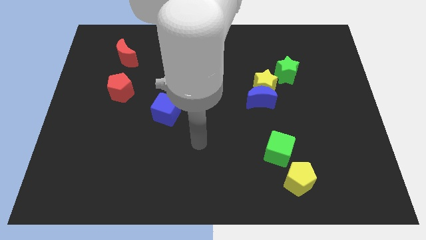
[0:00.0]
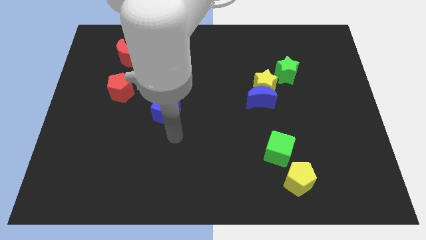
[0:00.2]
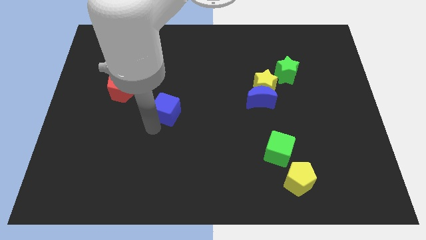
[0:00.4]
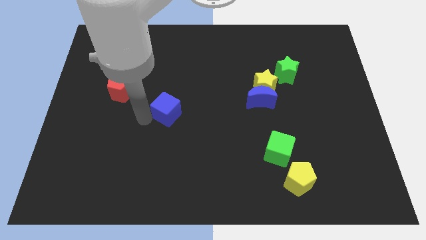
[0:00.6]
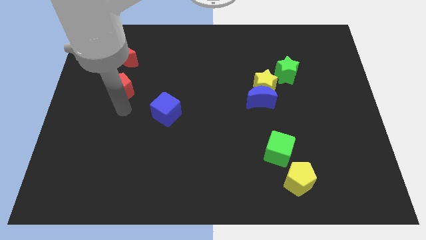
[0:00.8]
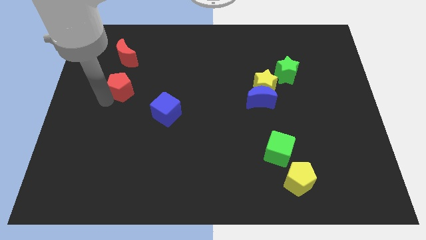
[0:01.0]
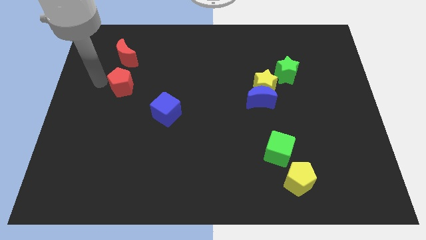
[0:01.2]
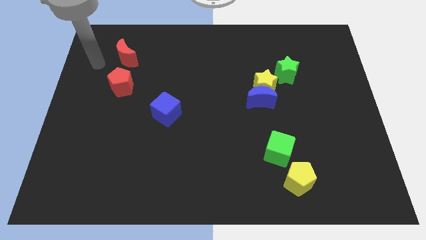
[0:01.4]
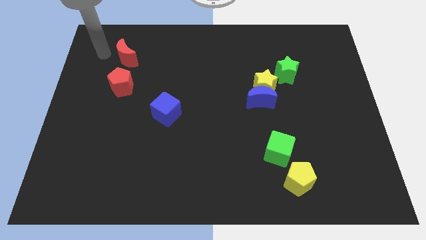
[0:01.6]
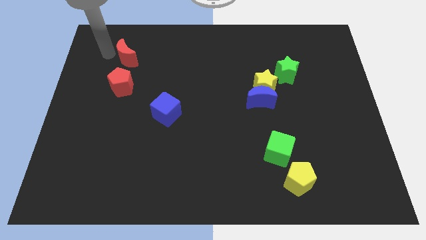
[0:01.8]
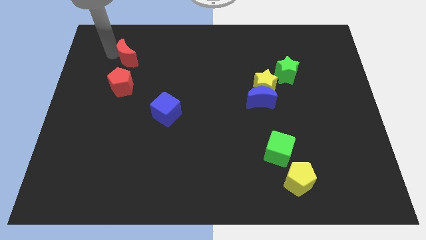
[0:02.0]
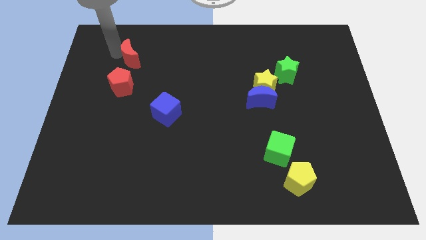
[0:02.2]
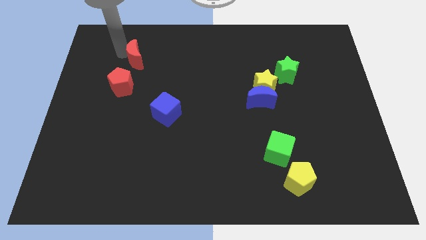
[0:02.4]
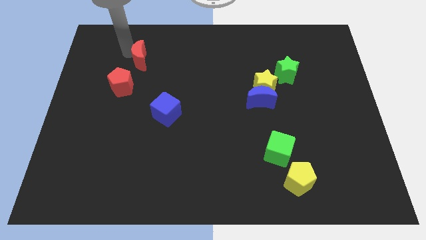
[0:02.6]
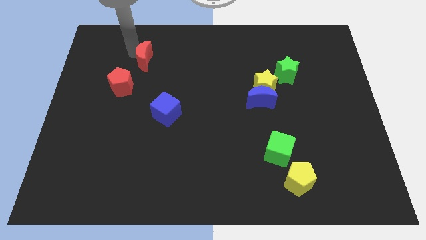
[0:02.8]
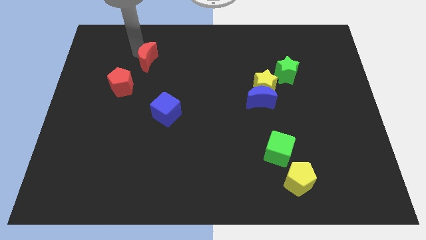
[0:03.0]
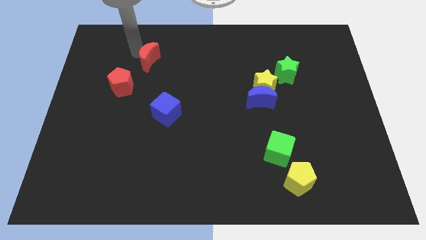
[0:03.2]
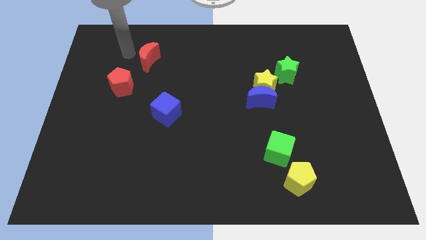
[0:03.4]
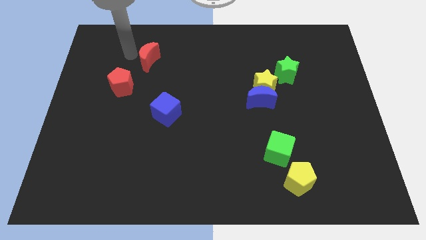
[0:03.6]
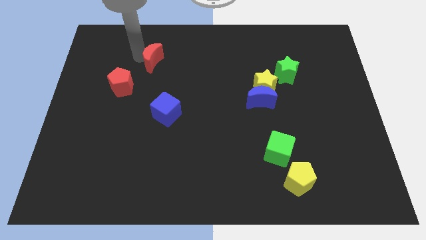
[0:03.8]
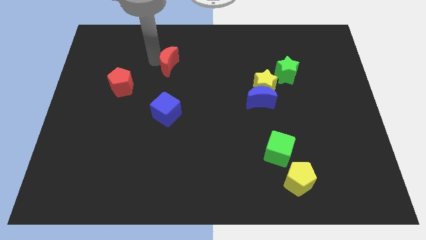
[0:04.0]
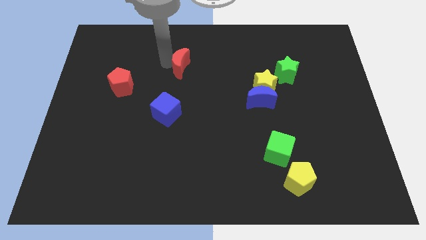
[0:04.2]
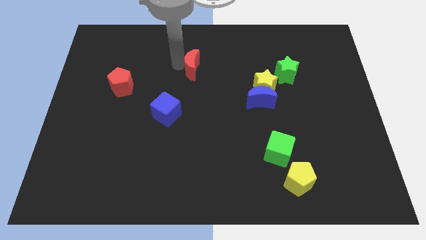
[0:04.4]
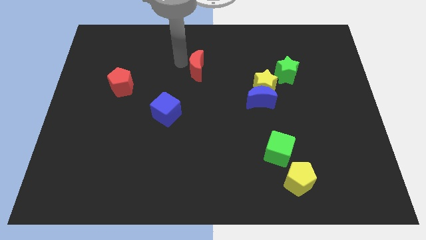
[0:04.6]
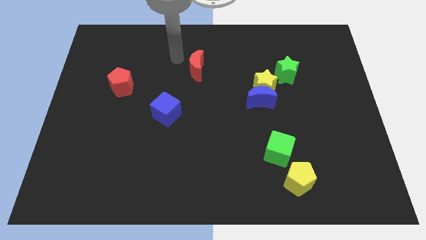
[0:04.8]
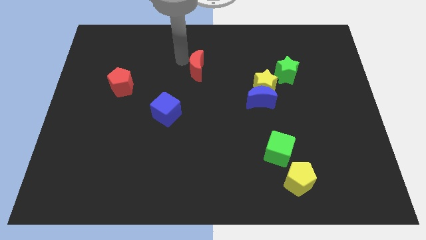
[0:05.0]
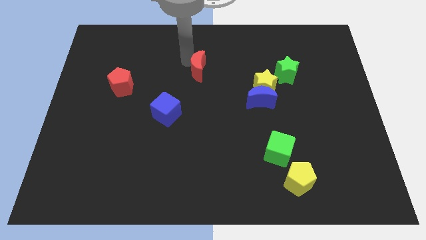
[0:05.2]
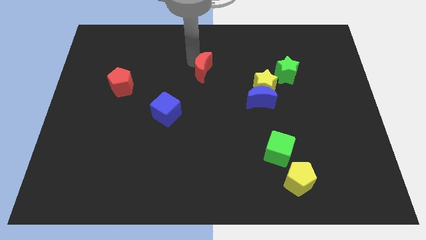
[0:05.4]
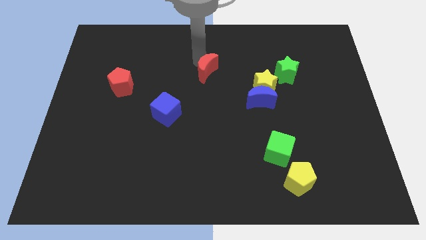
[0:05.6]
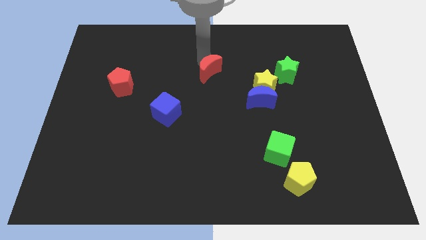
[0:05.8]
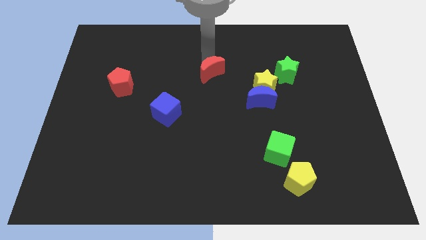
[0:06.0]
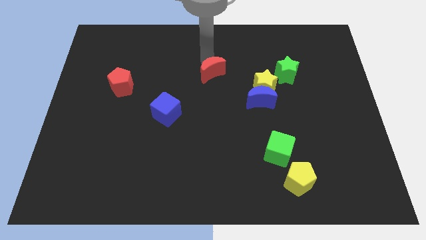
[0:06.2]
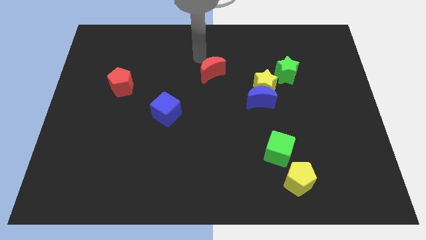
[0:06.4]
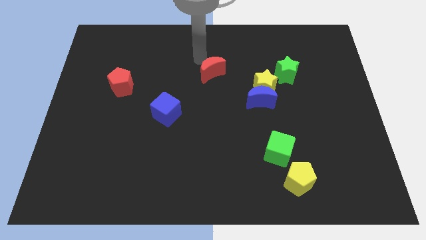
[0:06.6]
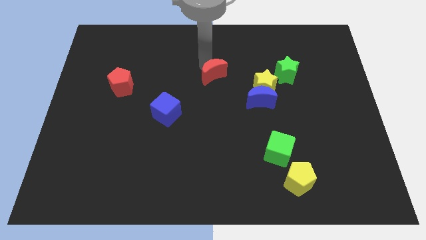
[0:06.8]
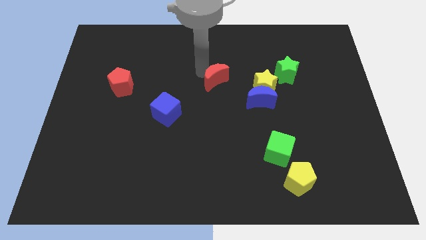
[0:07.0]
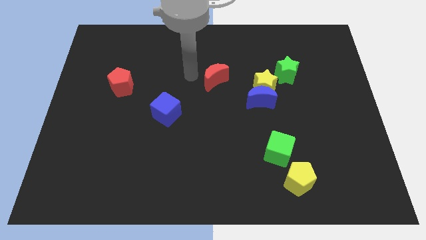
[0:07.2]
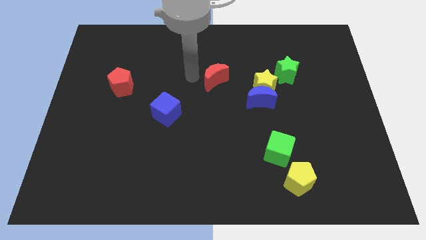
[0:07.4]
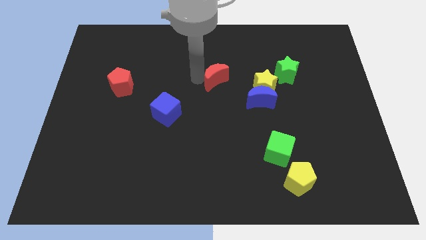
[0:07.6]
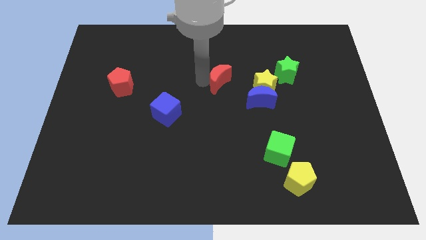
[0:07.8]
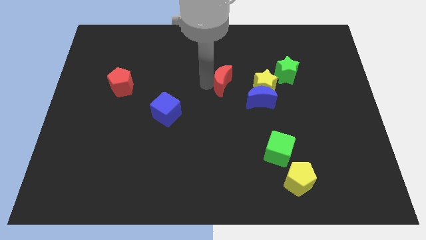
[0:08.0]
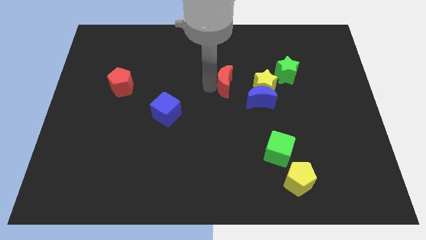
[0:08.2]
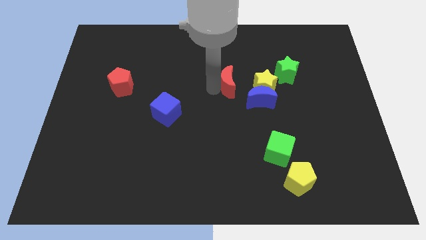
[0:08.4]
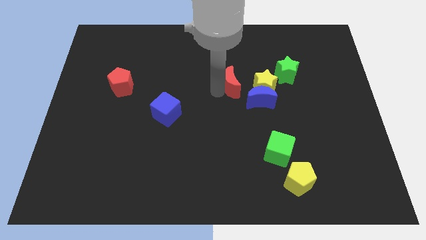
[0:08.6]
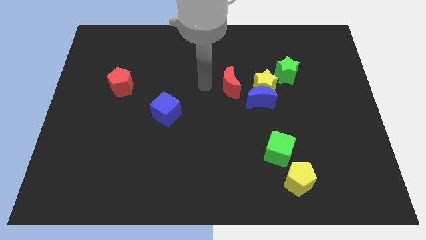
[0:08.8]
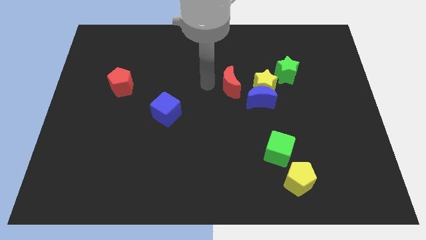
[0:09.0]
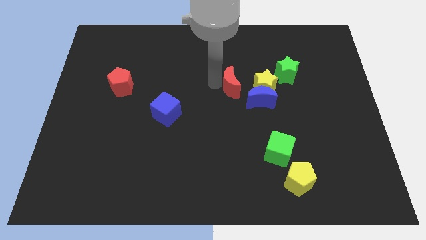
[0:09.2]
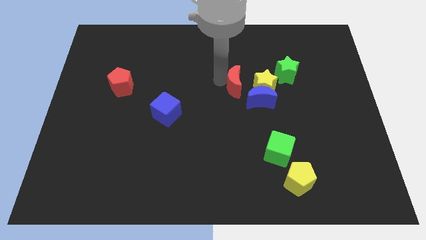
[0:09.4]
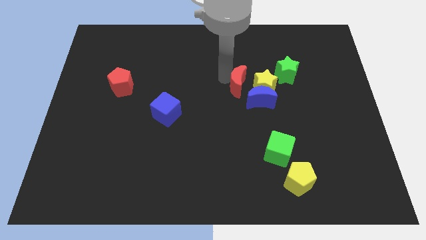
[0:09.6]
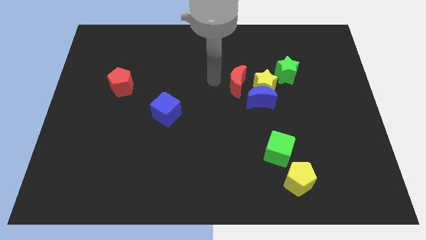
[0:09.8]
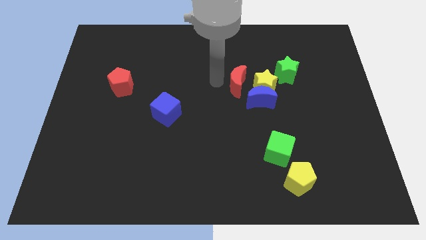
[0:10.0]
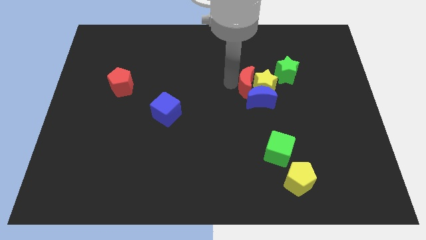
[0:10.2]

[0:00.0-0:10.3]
push the red moon towards the yellow star

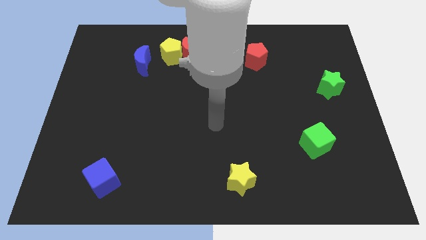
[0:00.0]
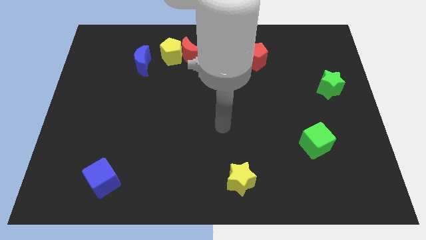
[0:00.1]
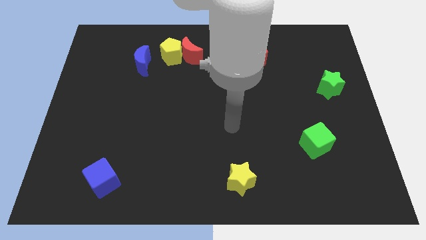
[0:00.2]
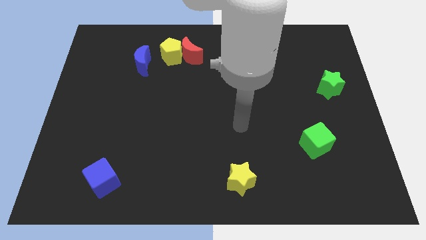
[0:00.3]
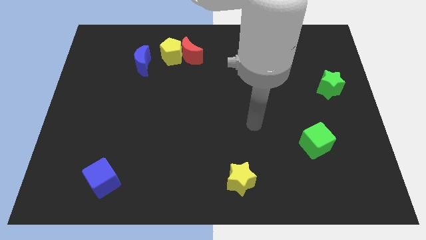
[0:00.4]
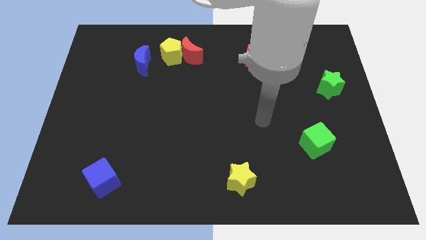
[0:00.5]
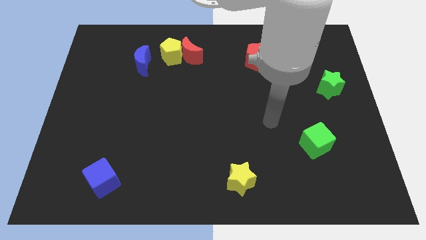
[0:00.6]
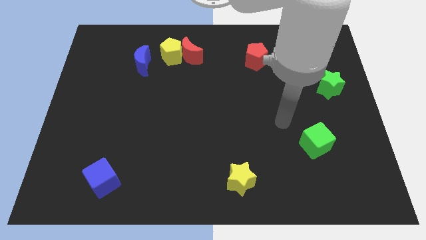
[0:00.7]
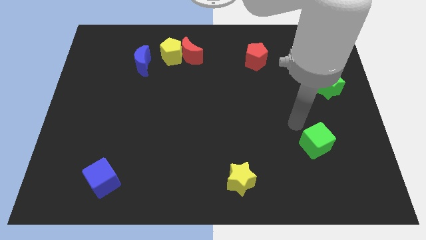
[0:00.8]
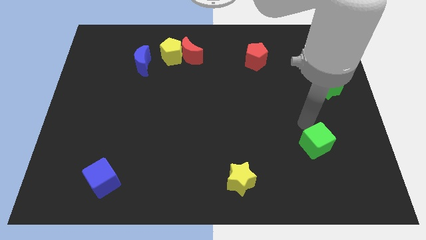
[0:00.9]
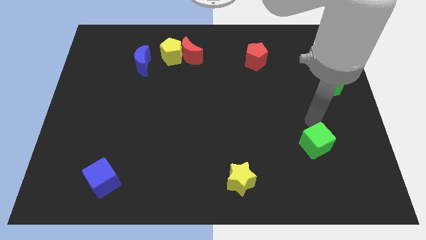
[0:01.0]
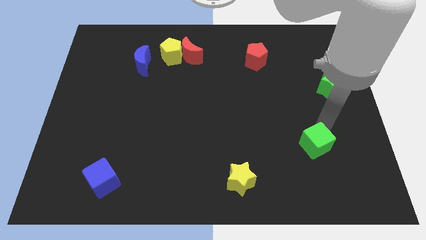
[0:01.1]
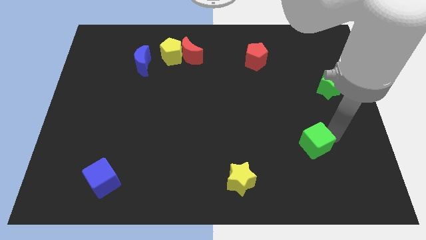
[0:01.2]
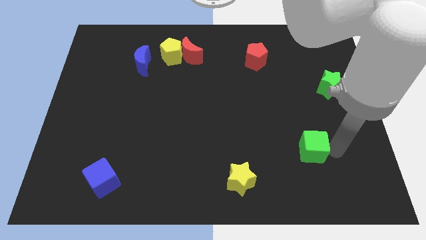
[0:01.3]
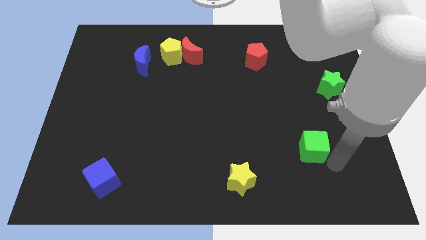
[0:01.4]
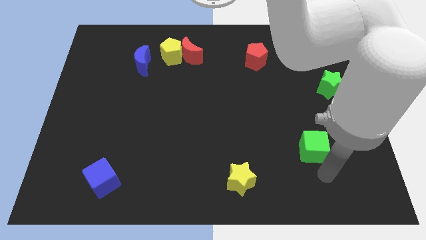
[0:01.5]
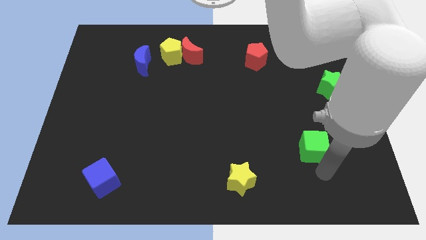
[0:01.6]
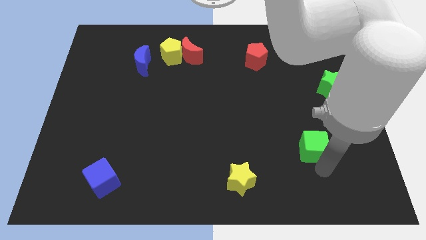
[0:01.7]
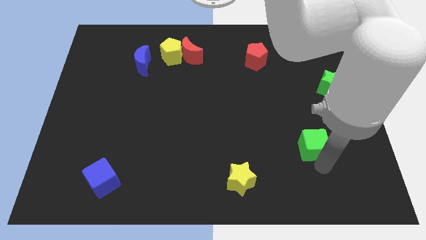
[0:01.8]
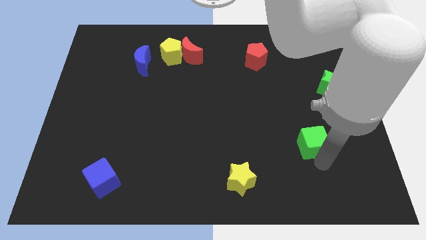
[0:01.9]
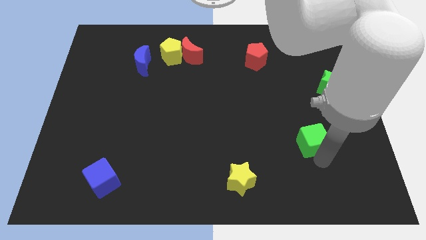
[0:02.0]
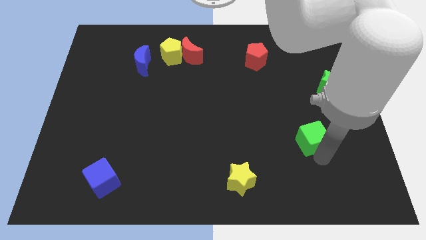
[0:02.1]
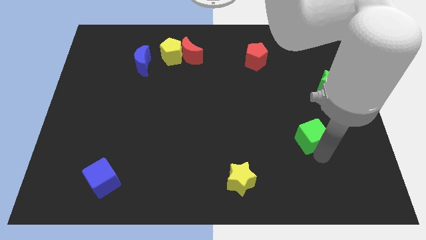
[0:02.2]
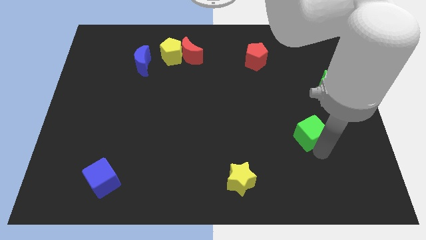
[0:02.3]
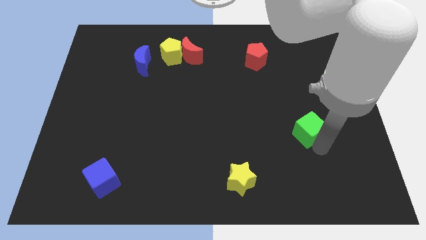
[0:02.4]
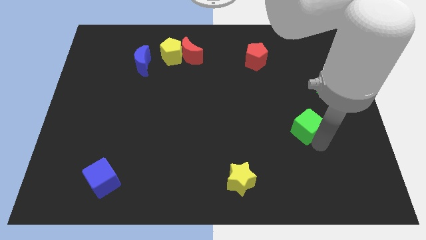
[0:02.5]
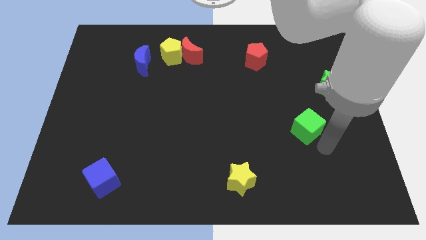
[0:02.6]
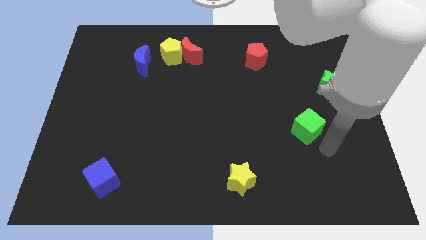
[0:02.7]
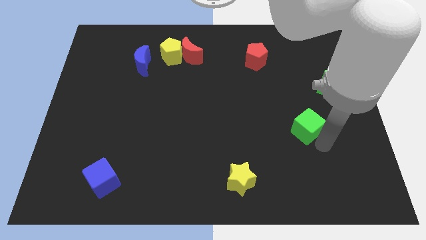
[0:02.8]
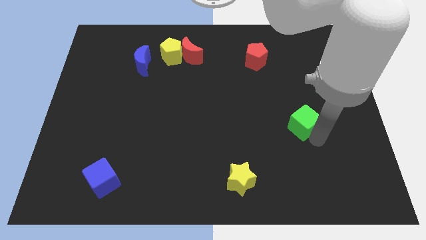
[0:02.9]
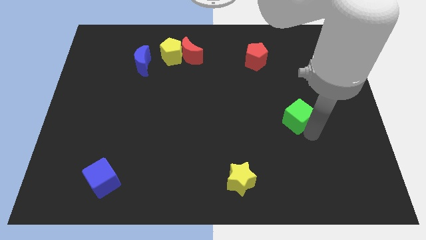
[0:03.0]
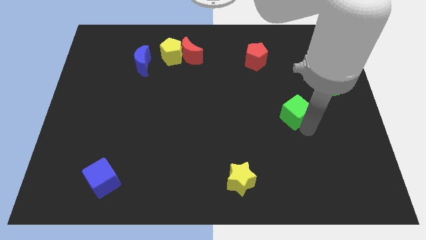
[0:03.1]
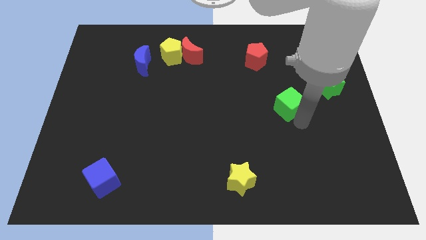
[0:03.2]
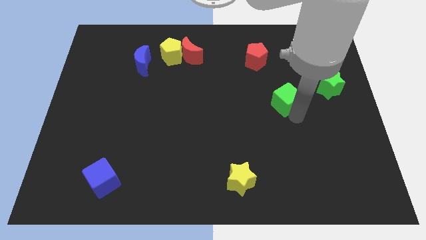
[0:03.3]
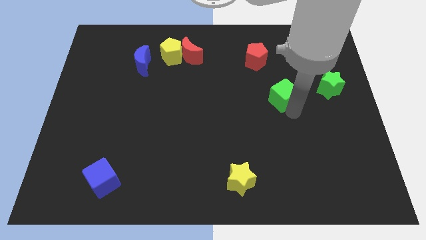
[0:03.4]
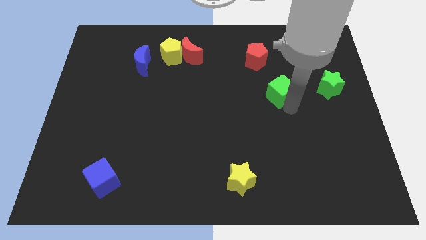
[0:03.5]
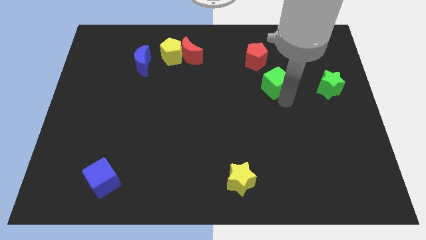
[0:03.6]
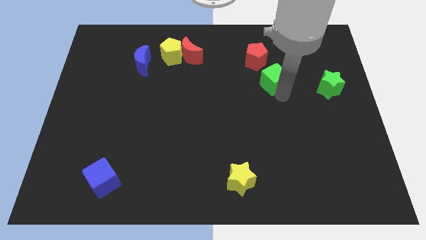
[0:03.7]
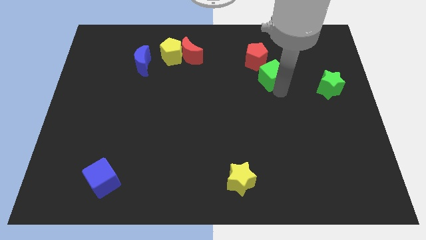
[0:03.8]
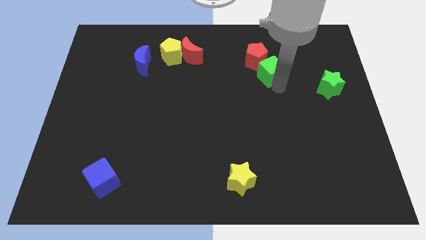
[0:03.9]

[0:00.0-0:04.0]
put the green cube close to the red pentagon
